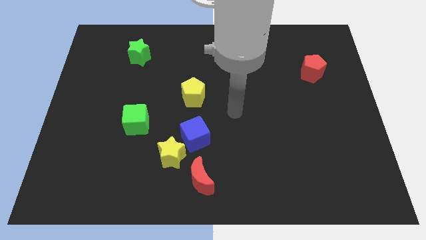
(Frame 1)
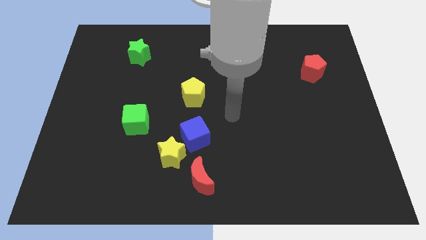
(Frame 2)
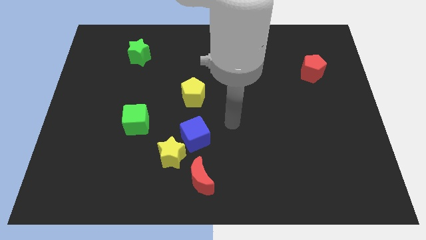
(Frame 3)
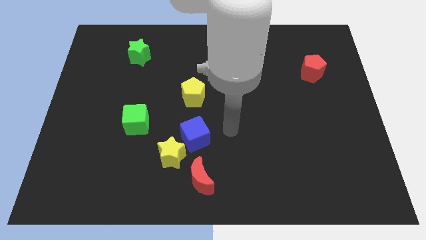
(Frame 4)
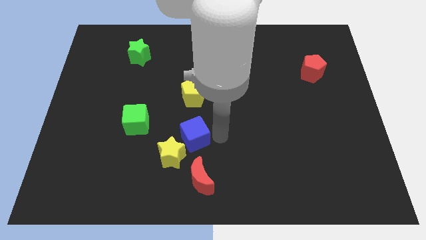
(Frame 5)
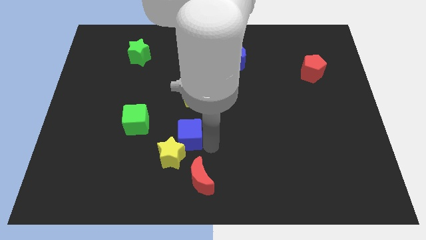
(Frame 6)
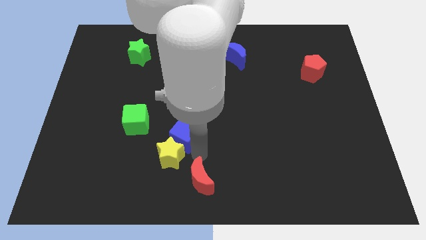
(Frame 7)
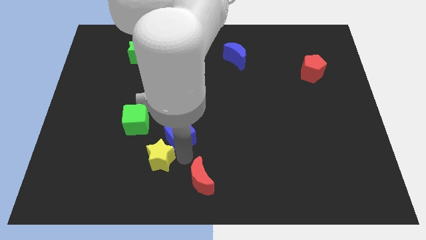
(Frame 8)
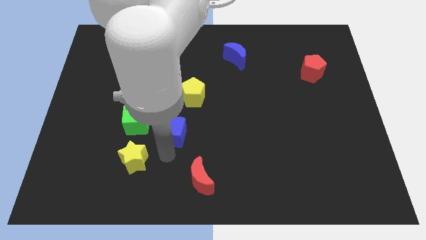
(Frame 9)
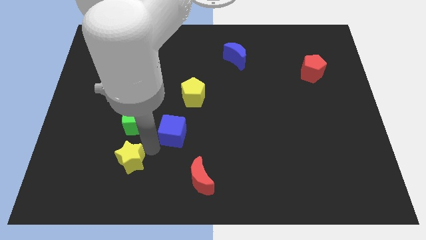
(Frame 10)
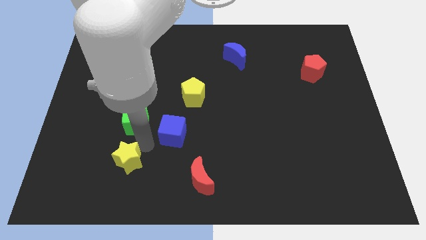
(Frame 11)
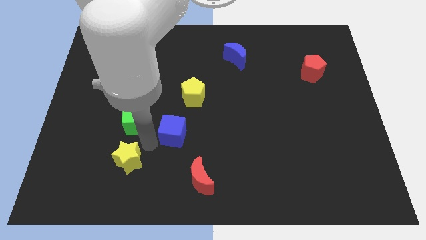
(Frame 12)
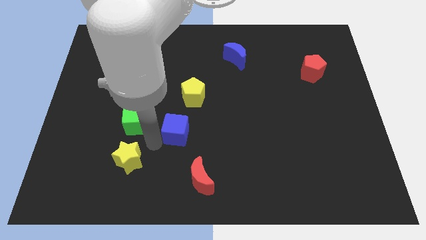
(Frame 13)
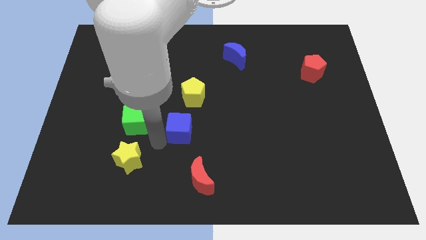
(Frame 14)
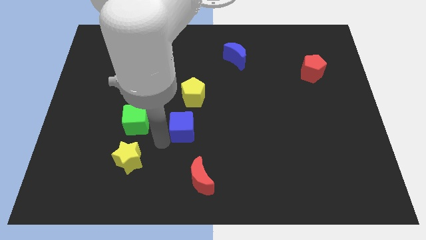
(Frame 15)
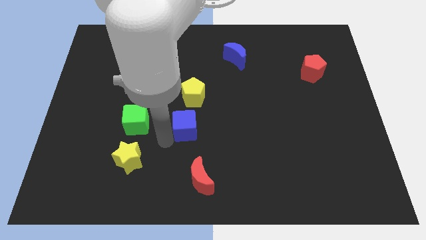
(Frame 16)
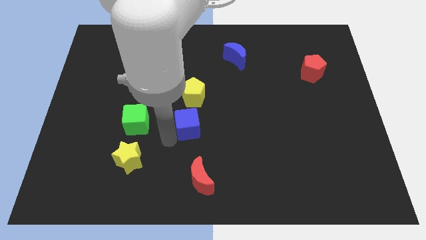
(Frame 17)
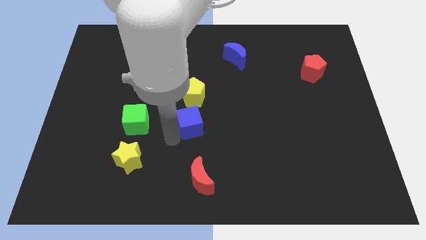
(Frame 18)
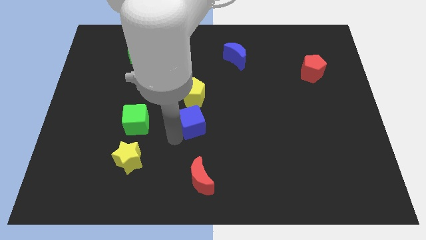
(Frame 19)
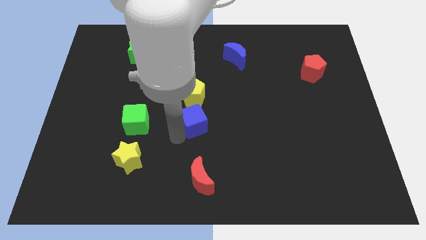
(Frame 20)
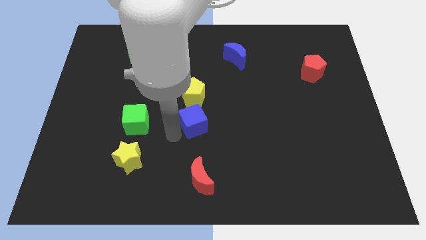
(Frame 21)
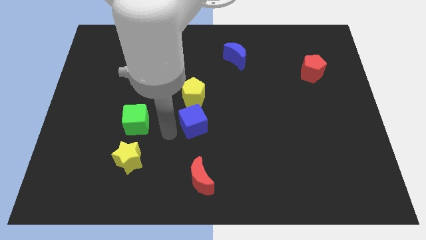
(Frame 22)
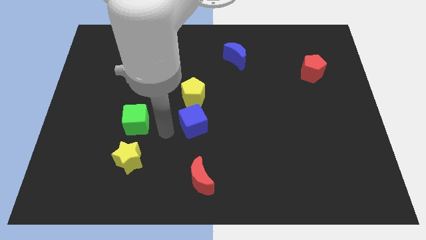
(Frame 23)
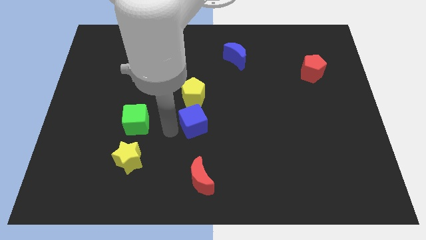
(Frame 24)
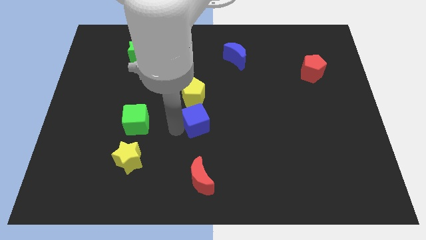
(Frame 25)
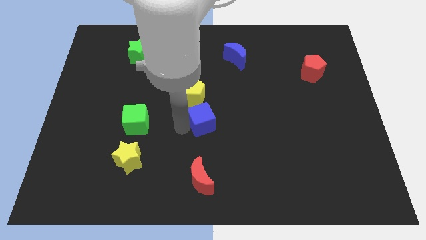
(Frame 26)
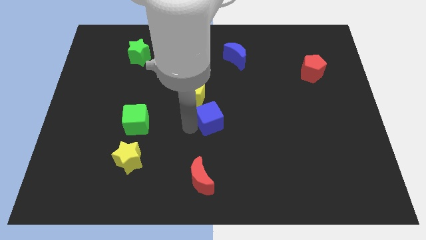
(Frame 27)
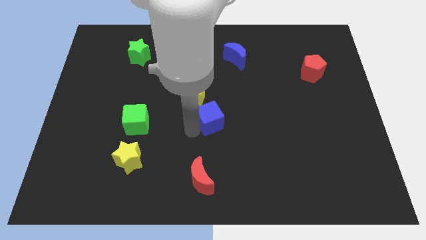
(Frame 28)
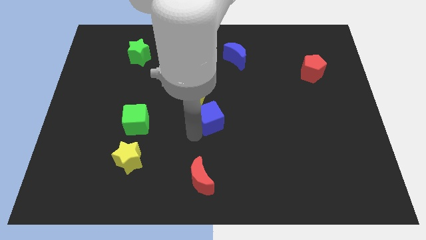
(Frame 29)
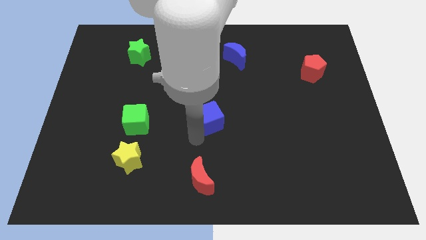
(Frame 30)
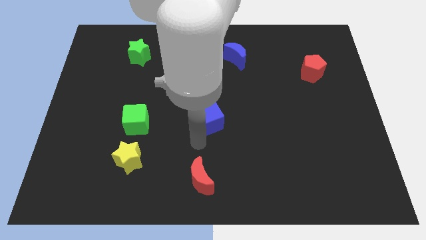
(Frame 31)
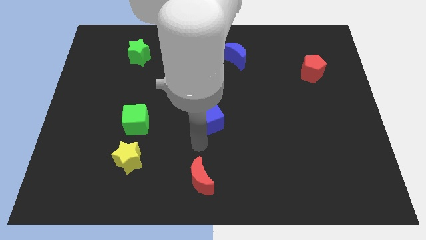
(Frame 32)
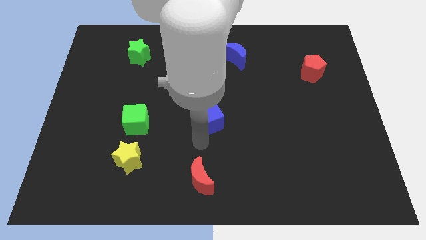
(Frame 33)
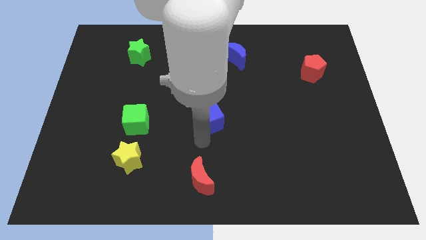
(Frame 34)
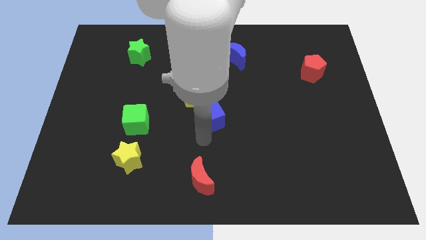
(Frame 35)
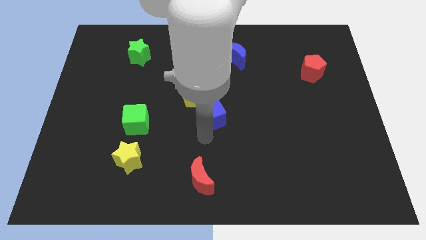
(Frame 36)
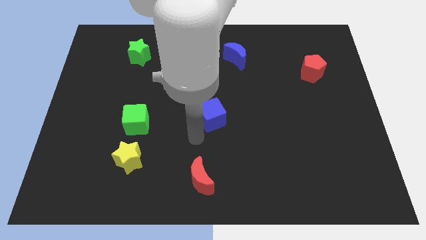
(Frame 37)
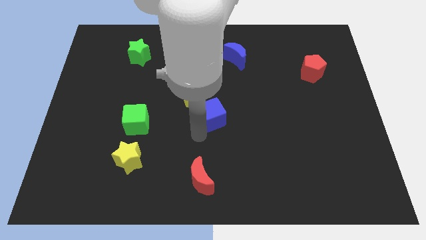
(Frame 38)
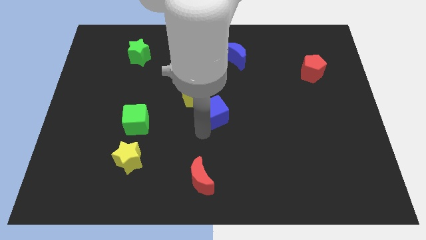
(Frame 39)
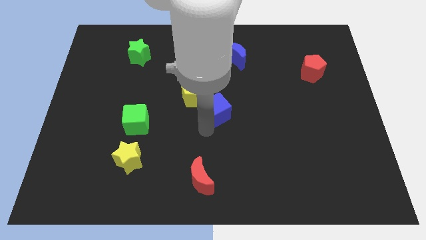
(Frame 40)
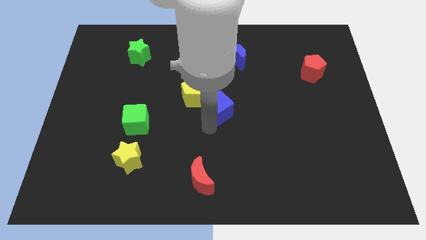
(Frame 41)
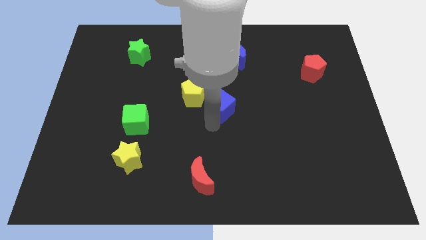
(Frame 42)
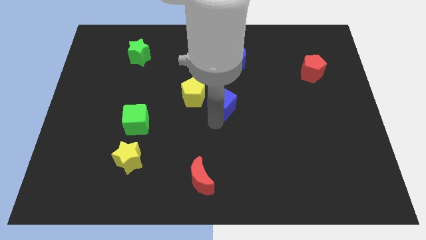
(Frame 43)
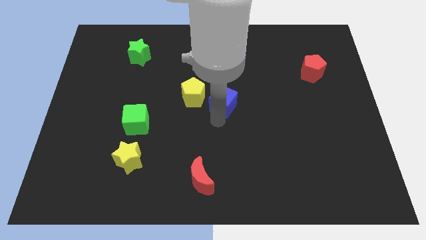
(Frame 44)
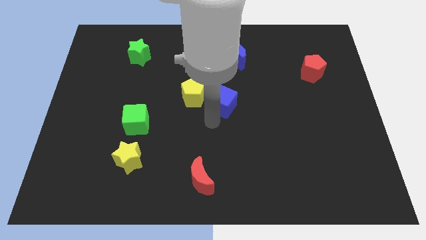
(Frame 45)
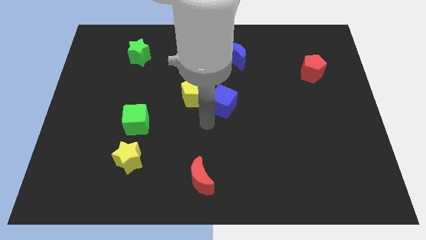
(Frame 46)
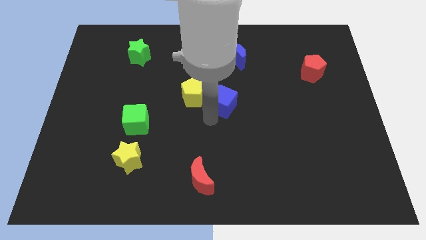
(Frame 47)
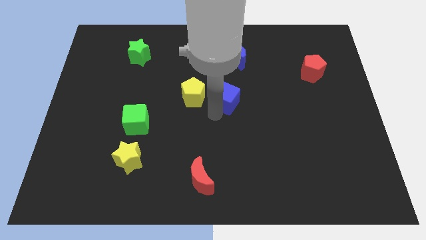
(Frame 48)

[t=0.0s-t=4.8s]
put the blue cube to the bottom of the blue moon

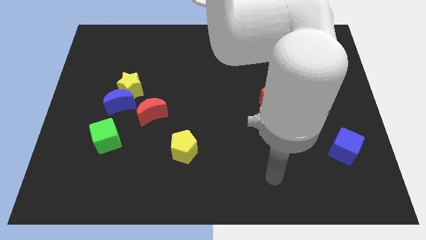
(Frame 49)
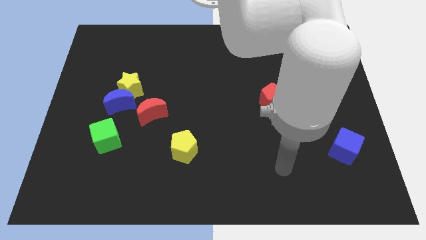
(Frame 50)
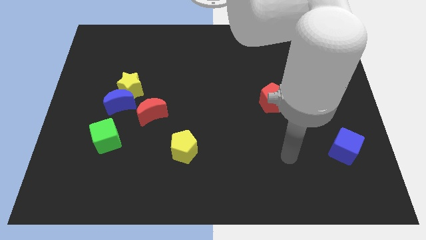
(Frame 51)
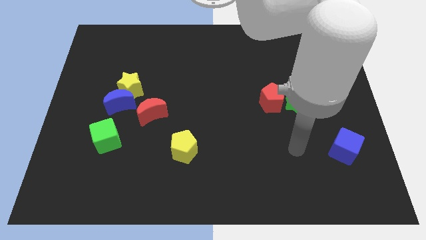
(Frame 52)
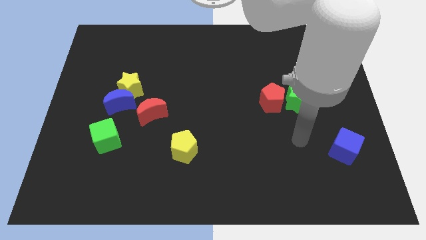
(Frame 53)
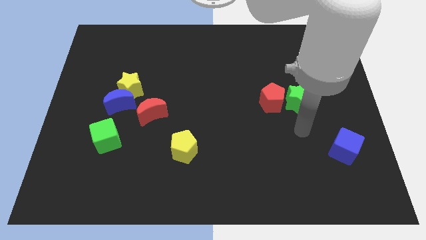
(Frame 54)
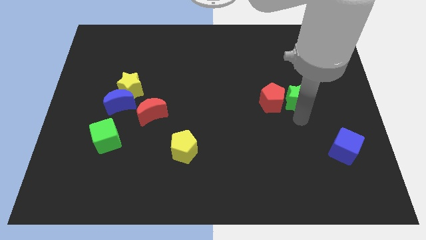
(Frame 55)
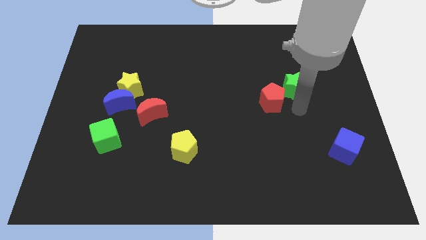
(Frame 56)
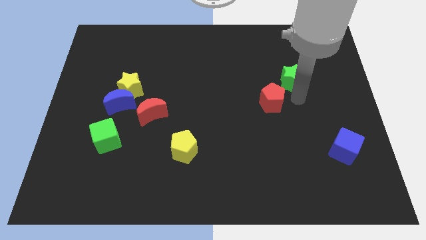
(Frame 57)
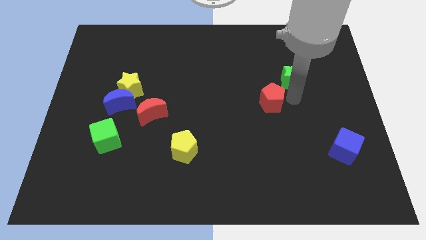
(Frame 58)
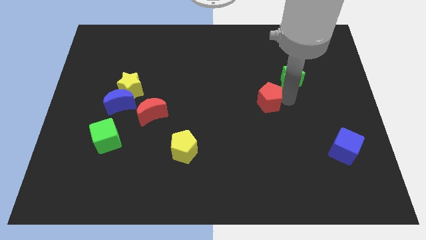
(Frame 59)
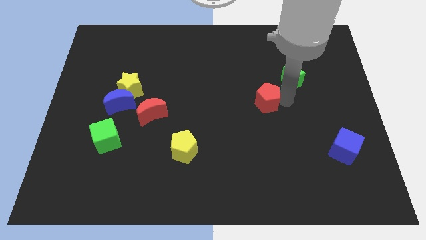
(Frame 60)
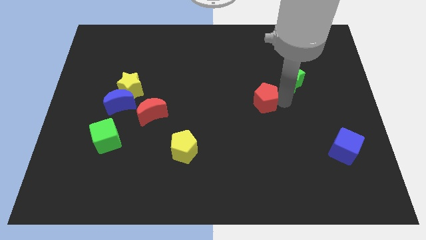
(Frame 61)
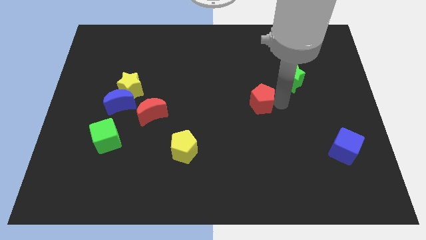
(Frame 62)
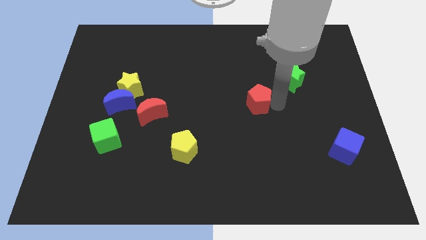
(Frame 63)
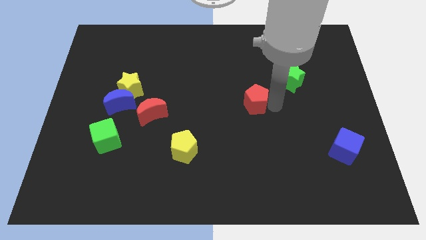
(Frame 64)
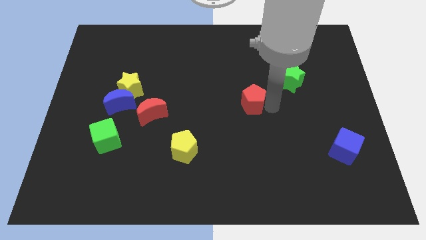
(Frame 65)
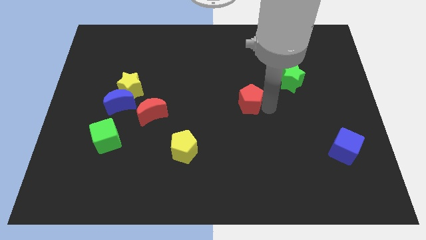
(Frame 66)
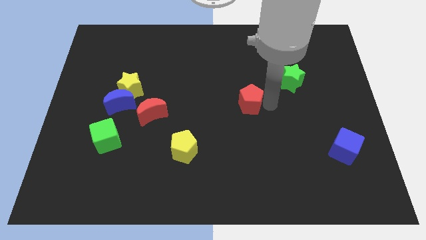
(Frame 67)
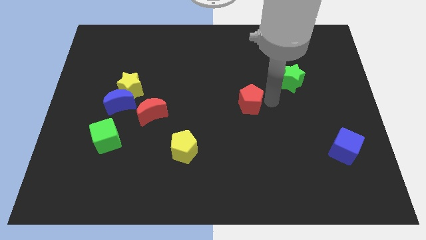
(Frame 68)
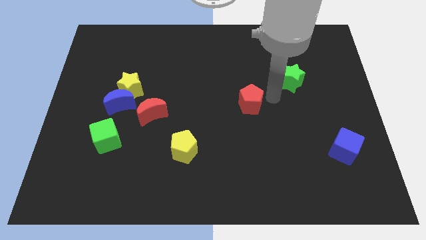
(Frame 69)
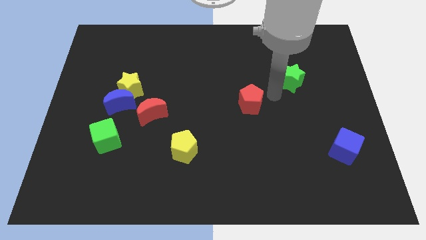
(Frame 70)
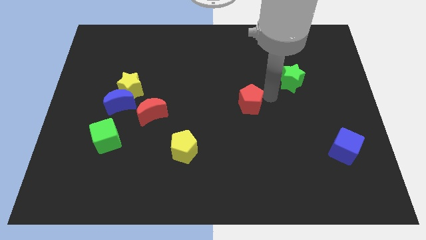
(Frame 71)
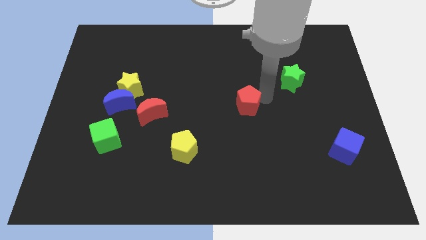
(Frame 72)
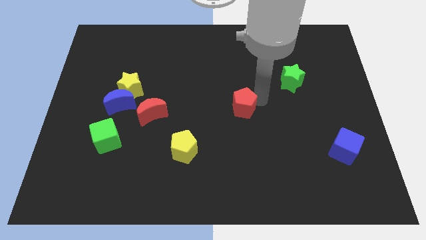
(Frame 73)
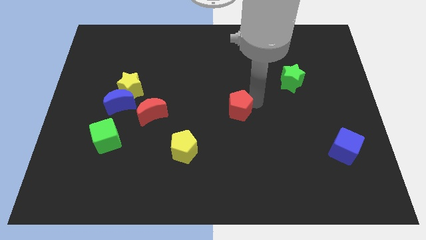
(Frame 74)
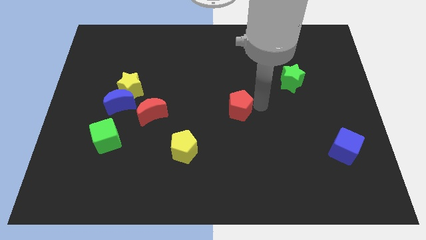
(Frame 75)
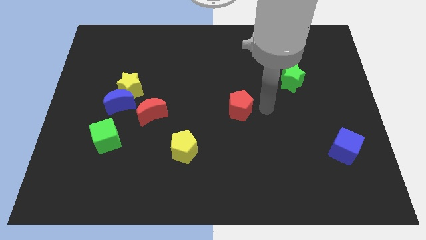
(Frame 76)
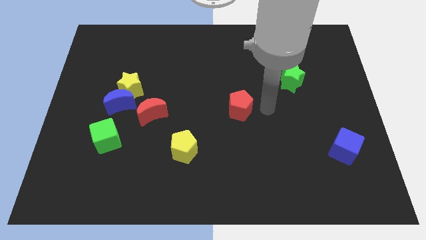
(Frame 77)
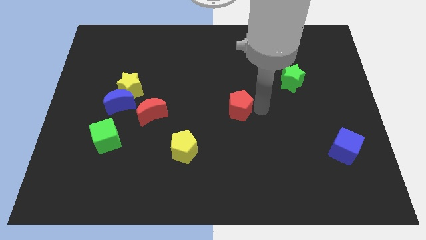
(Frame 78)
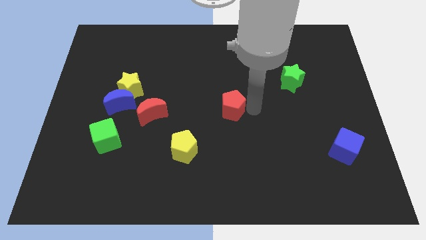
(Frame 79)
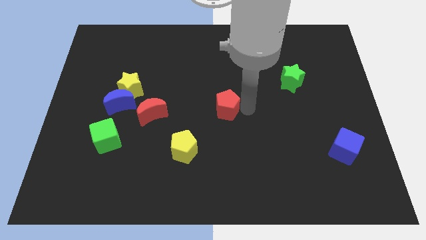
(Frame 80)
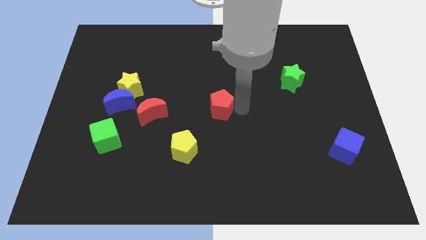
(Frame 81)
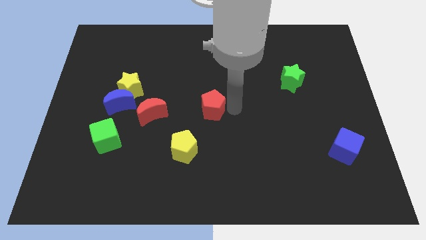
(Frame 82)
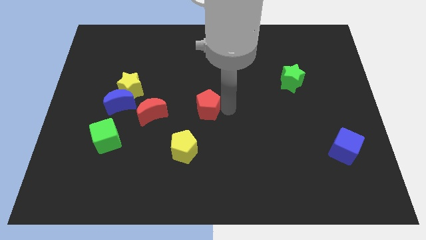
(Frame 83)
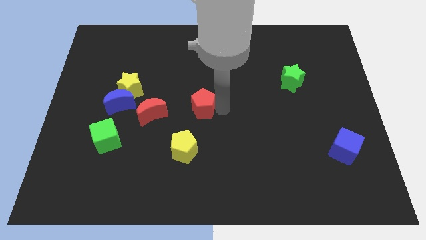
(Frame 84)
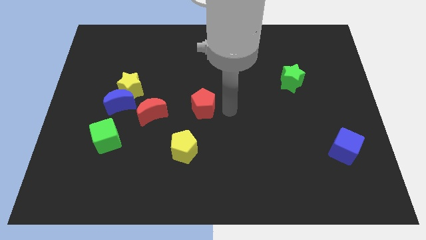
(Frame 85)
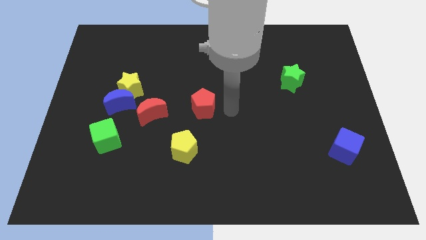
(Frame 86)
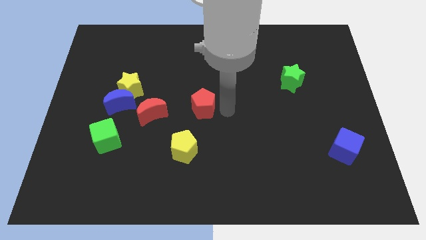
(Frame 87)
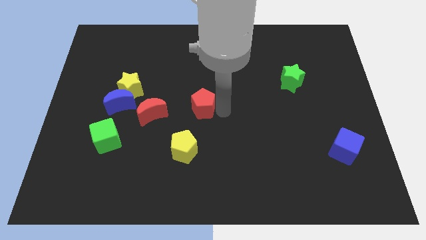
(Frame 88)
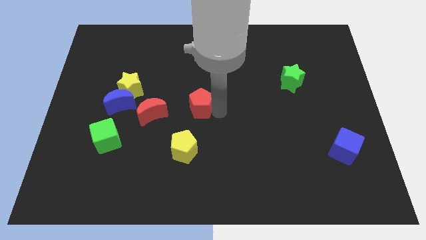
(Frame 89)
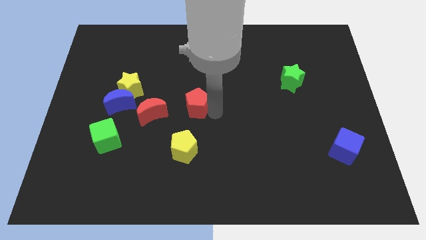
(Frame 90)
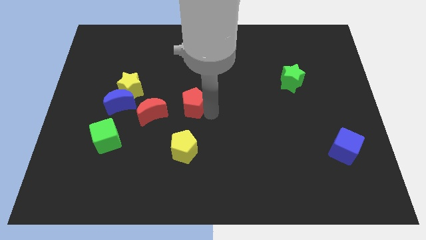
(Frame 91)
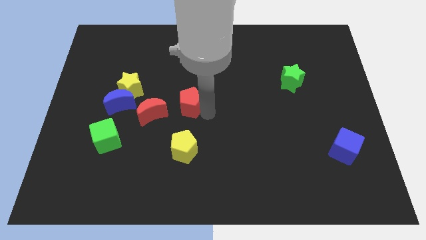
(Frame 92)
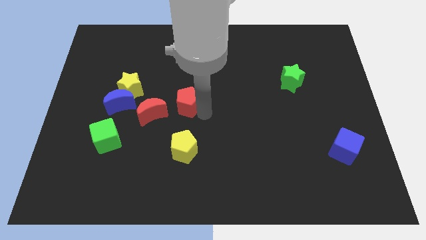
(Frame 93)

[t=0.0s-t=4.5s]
slide the red pentagon right of the blue moon
